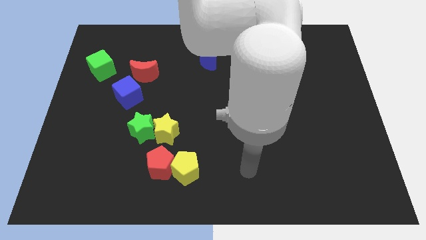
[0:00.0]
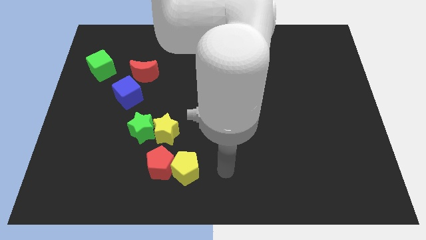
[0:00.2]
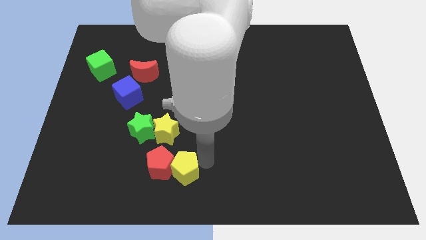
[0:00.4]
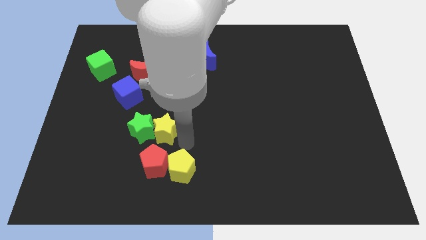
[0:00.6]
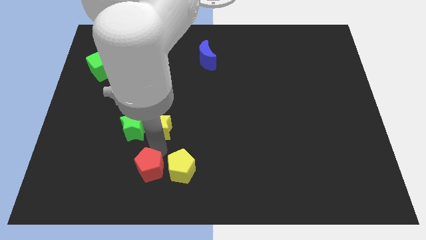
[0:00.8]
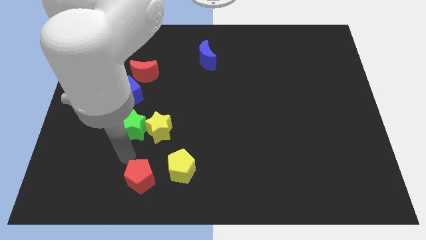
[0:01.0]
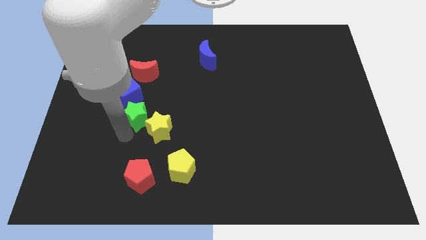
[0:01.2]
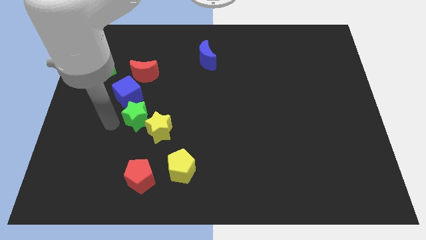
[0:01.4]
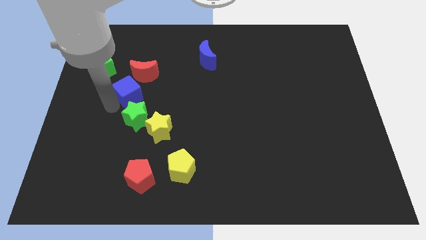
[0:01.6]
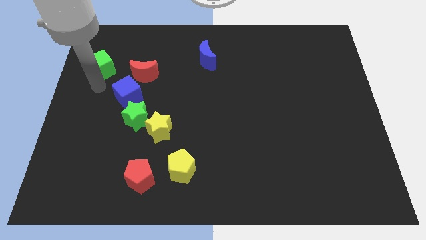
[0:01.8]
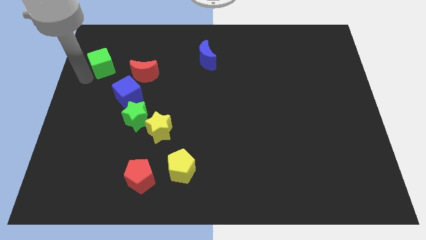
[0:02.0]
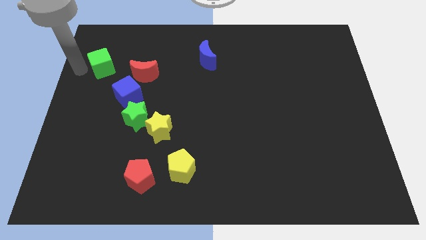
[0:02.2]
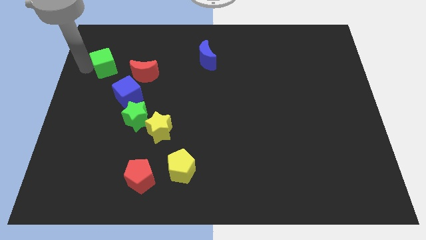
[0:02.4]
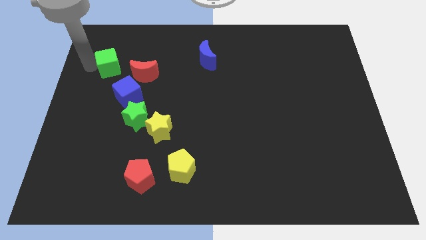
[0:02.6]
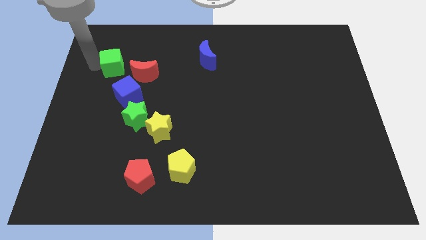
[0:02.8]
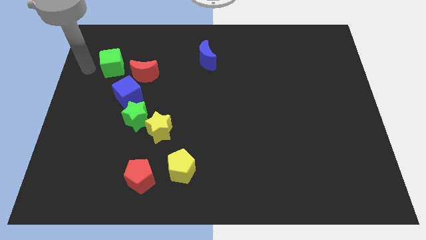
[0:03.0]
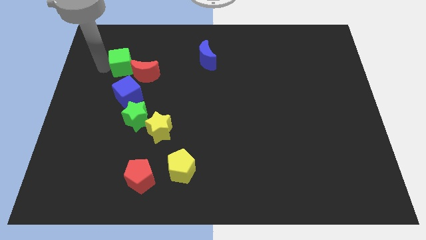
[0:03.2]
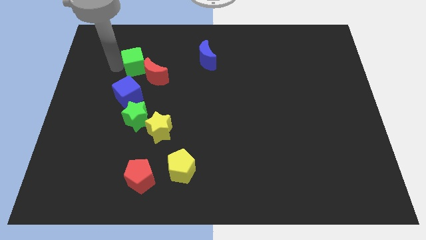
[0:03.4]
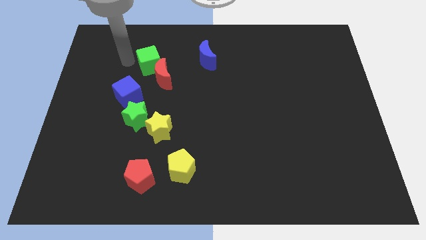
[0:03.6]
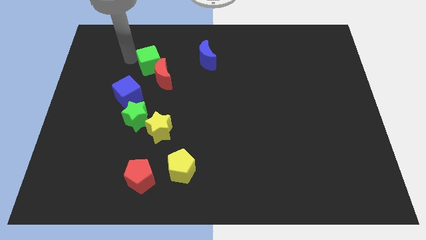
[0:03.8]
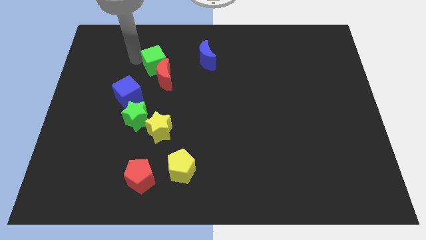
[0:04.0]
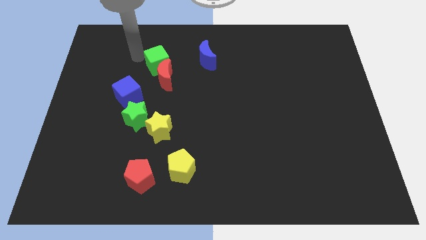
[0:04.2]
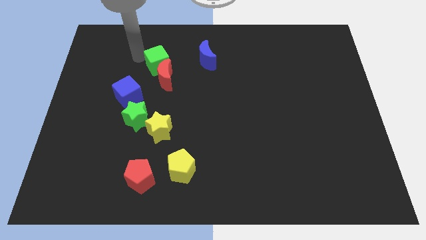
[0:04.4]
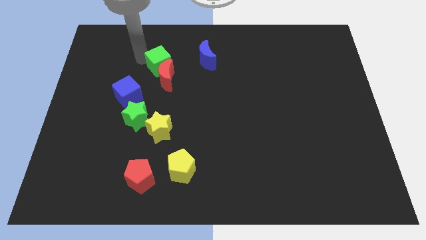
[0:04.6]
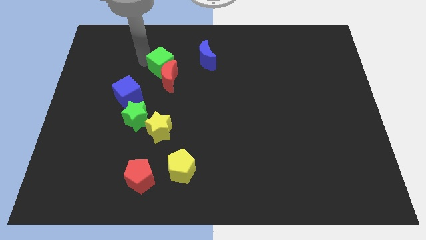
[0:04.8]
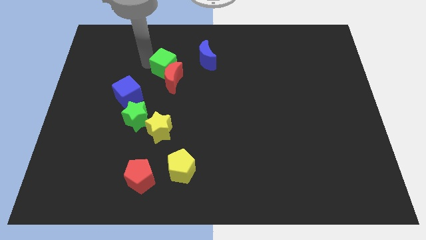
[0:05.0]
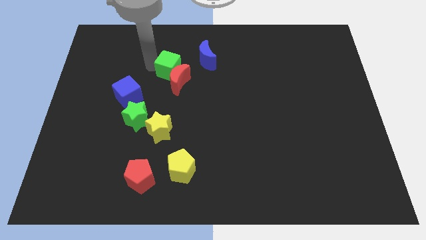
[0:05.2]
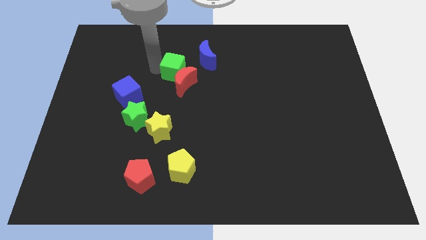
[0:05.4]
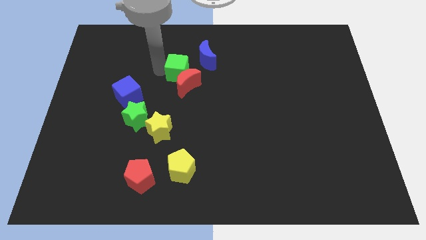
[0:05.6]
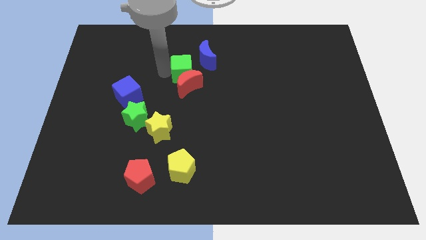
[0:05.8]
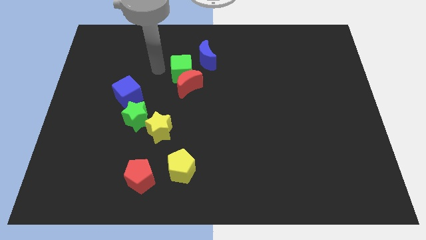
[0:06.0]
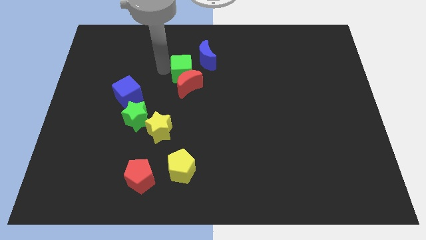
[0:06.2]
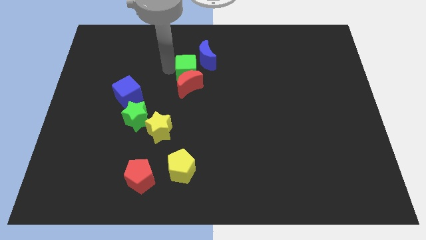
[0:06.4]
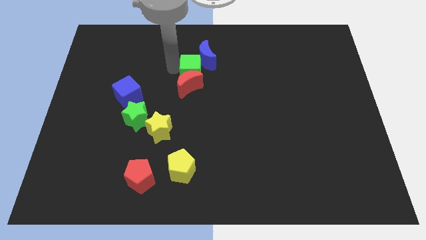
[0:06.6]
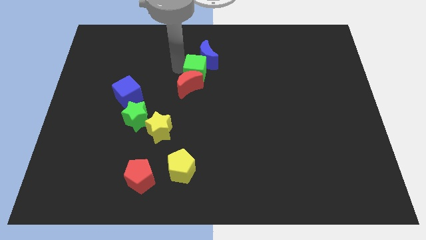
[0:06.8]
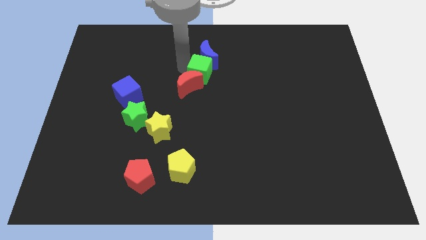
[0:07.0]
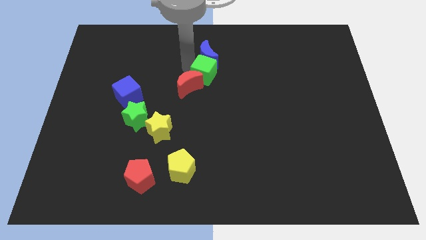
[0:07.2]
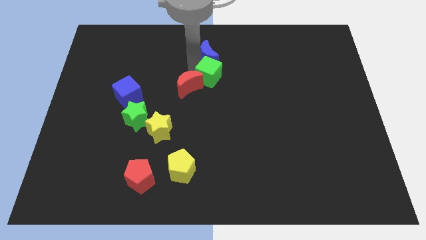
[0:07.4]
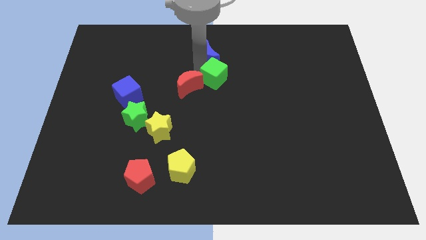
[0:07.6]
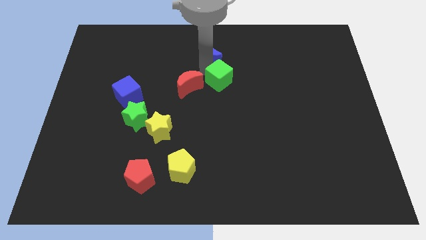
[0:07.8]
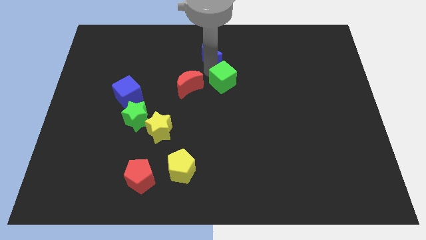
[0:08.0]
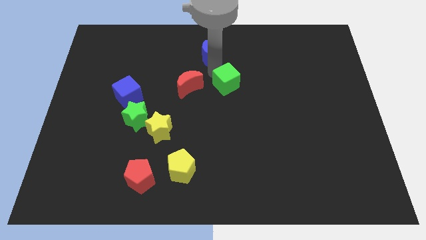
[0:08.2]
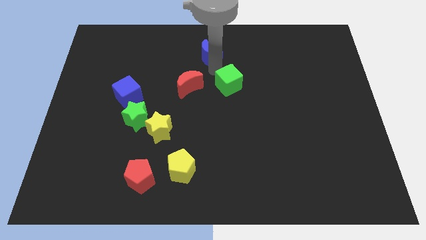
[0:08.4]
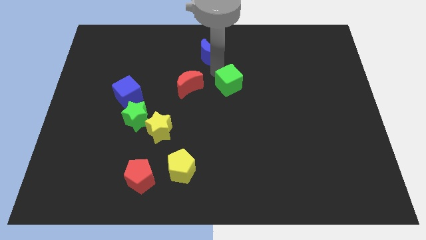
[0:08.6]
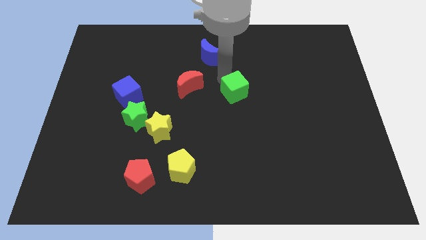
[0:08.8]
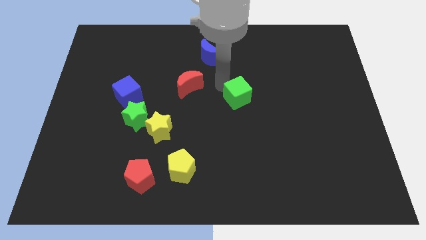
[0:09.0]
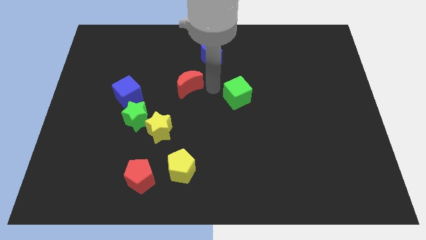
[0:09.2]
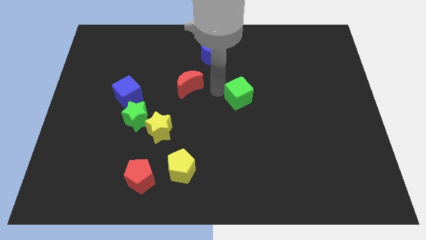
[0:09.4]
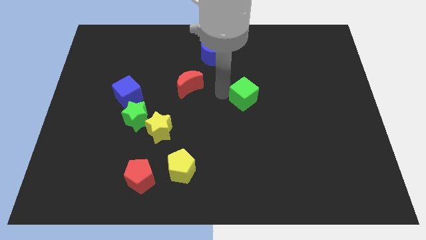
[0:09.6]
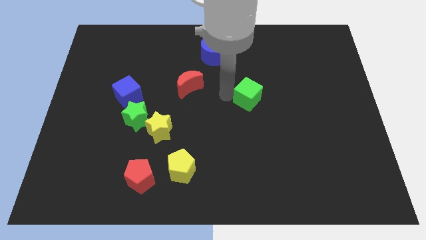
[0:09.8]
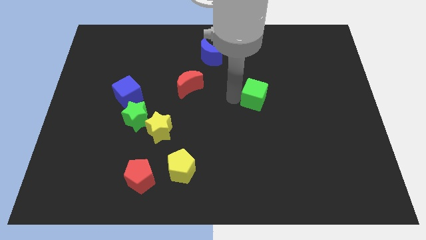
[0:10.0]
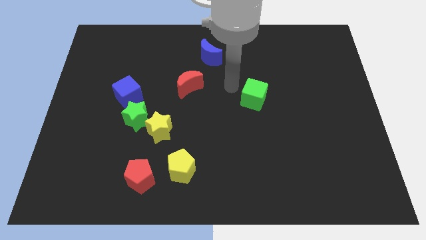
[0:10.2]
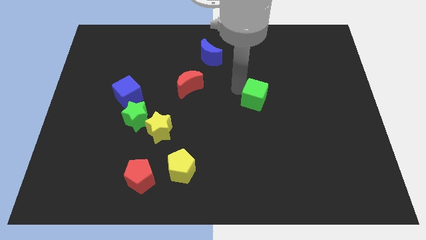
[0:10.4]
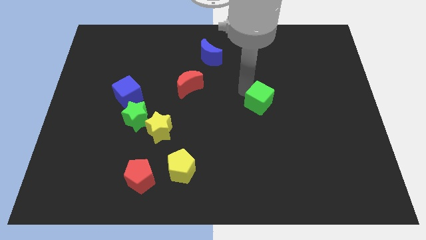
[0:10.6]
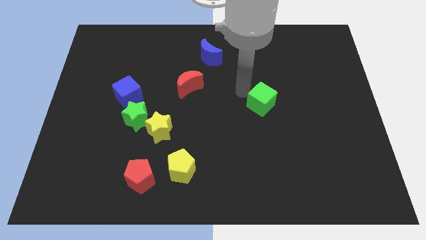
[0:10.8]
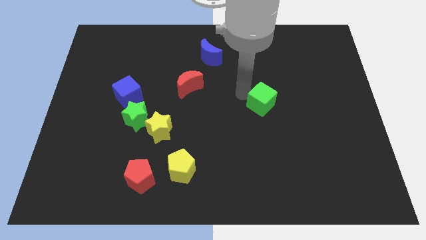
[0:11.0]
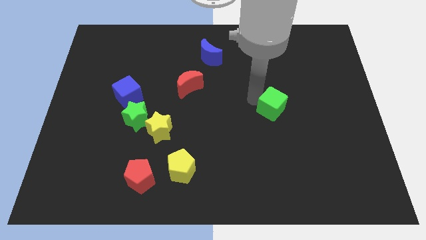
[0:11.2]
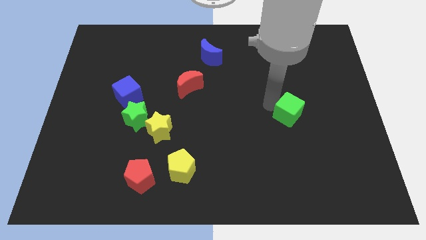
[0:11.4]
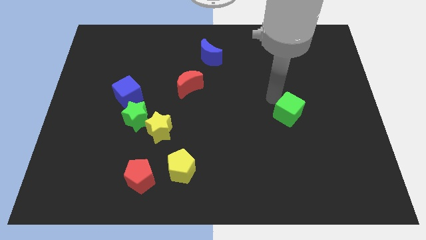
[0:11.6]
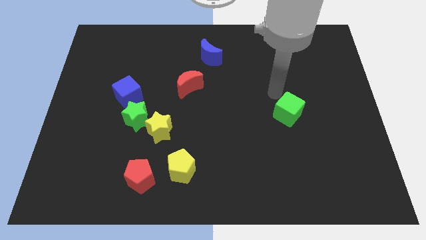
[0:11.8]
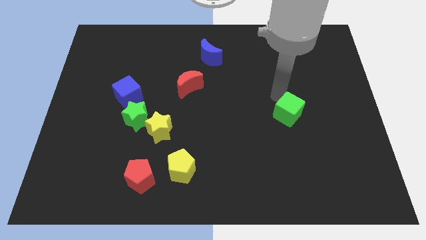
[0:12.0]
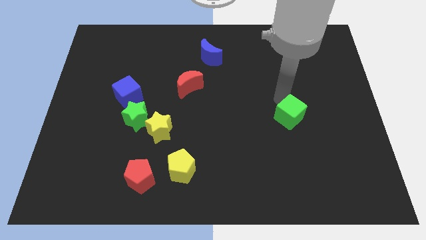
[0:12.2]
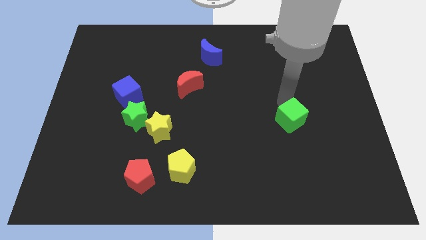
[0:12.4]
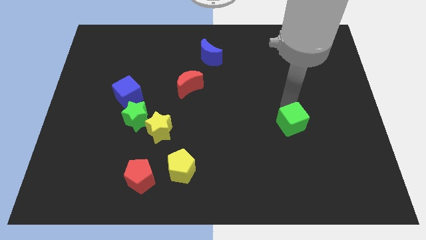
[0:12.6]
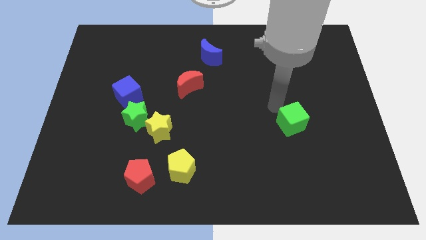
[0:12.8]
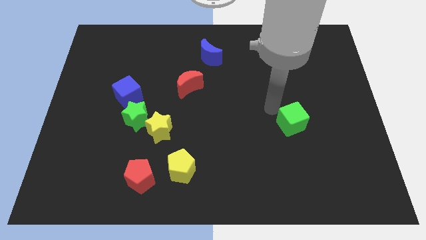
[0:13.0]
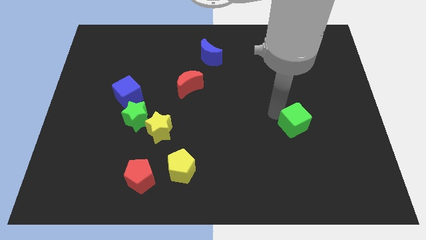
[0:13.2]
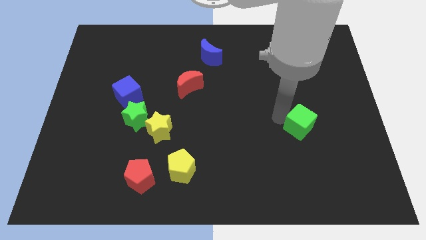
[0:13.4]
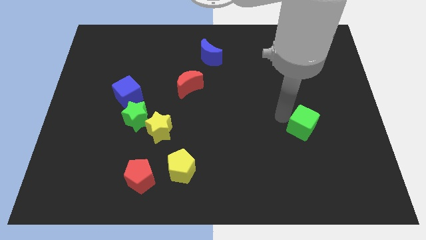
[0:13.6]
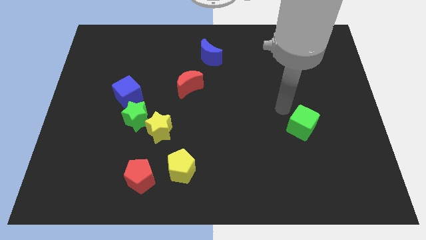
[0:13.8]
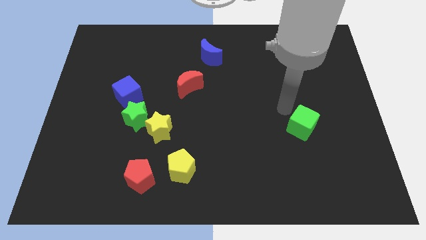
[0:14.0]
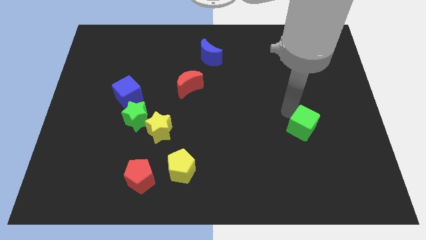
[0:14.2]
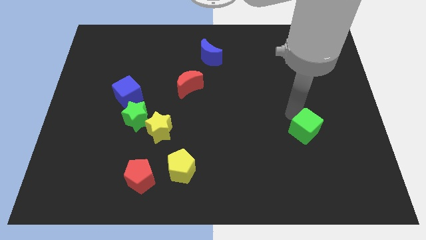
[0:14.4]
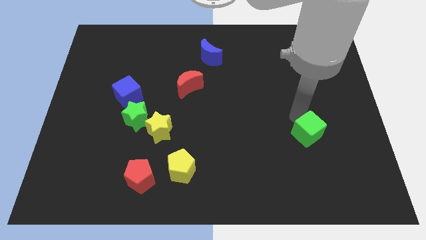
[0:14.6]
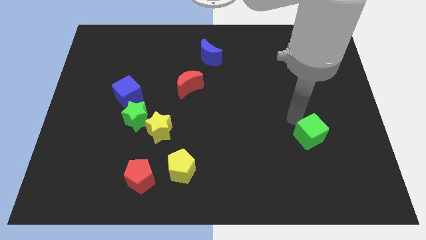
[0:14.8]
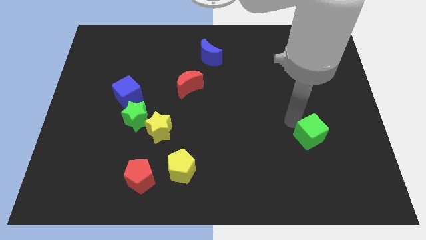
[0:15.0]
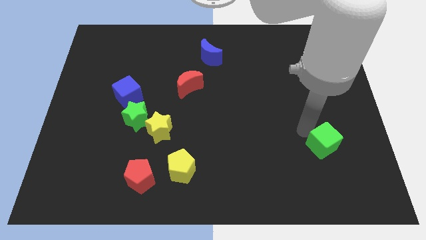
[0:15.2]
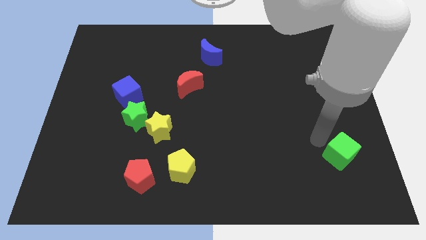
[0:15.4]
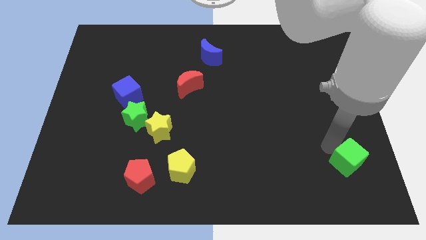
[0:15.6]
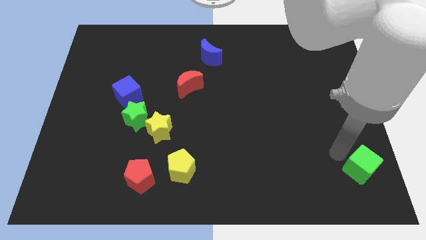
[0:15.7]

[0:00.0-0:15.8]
push the green cube to the lower right corner
